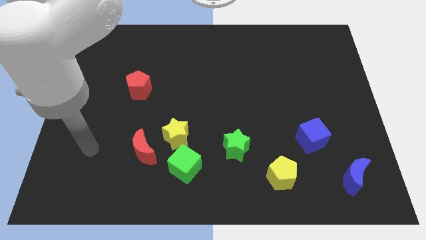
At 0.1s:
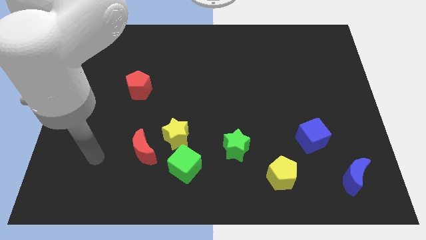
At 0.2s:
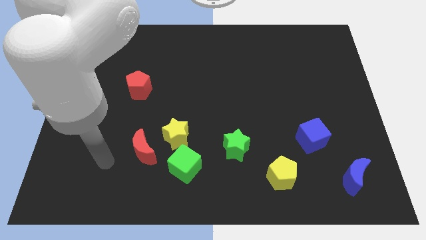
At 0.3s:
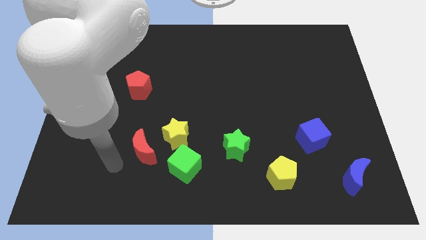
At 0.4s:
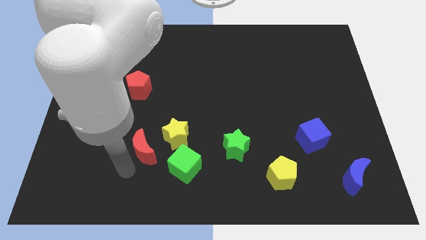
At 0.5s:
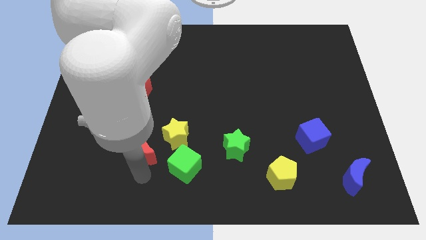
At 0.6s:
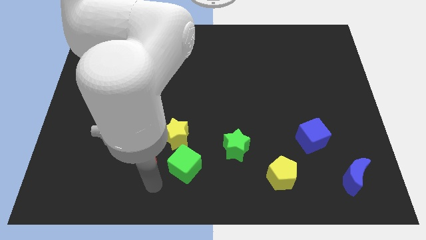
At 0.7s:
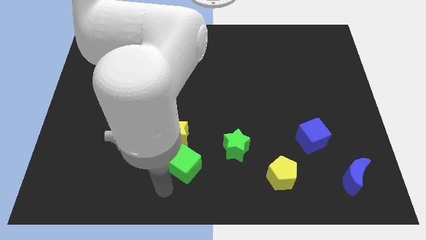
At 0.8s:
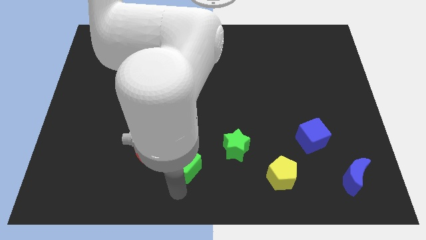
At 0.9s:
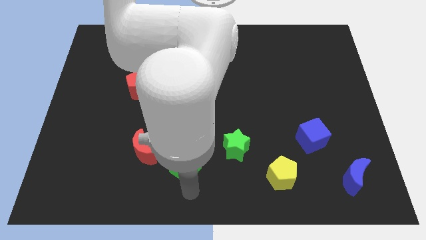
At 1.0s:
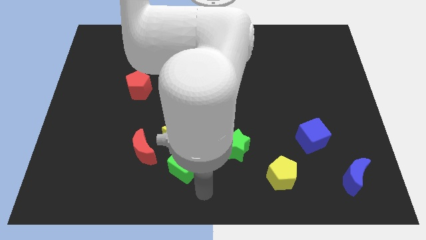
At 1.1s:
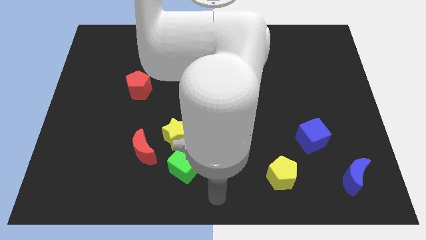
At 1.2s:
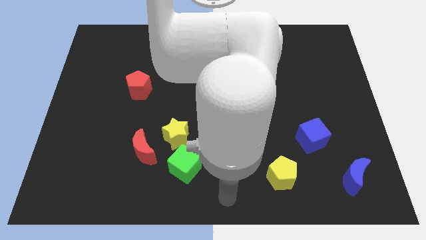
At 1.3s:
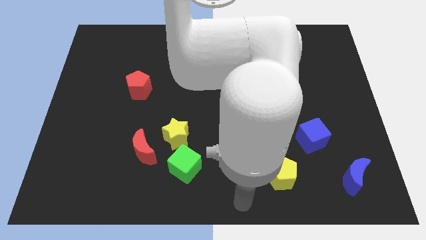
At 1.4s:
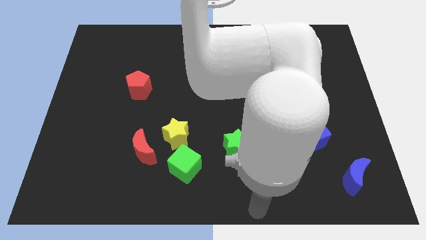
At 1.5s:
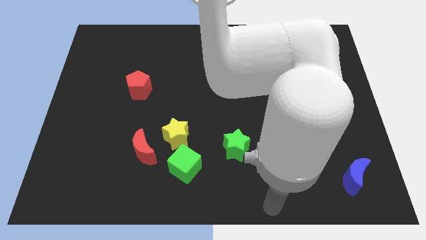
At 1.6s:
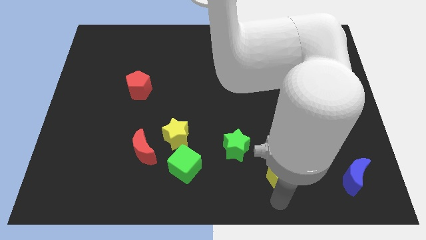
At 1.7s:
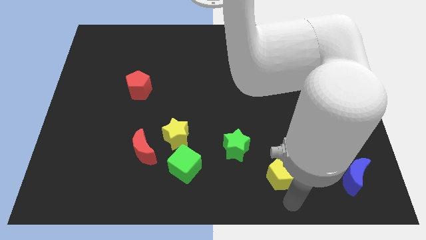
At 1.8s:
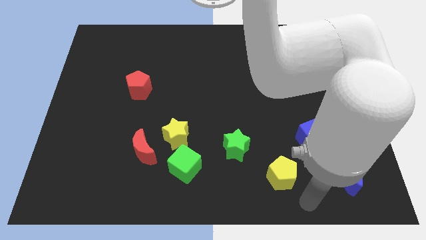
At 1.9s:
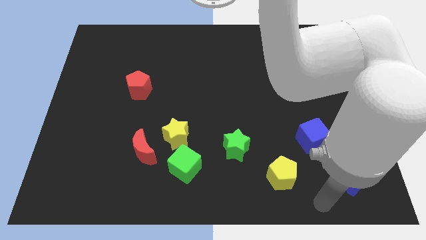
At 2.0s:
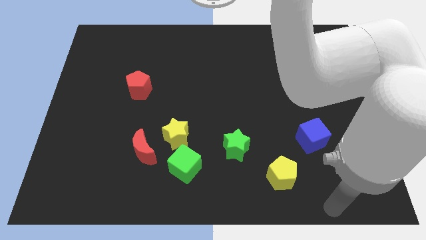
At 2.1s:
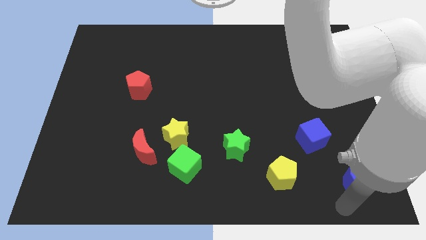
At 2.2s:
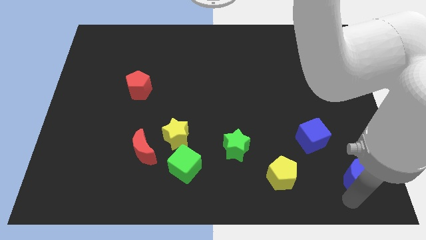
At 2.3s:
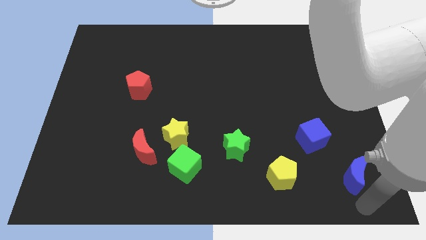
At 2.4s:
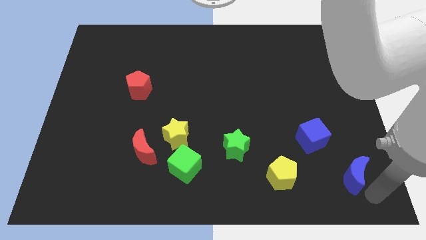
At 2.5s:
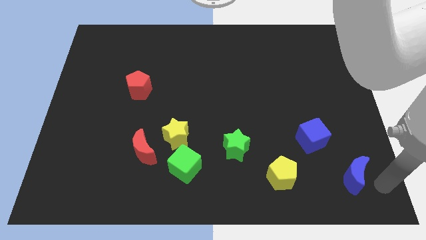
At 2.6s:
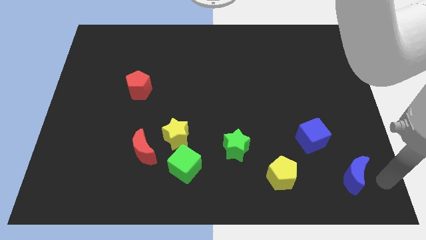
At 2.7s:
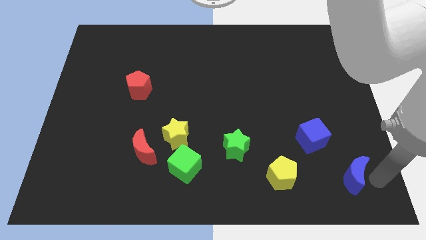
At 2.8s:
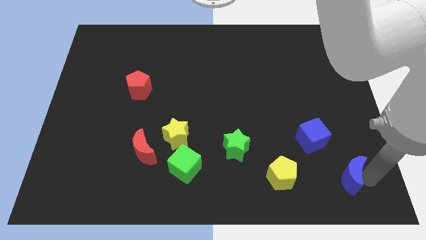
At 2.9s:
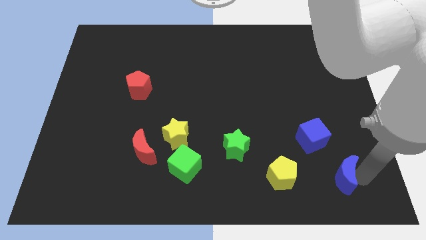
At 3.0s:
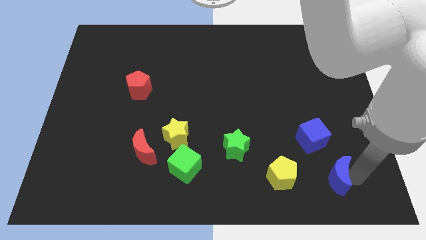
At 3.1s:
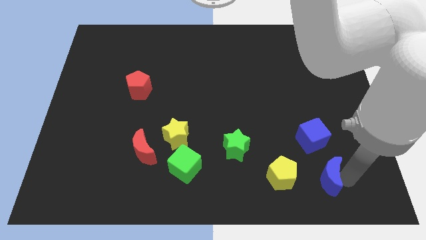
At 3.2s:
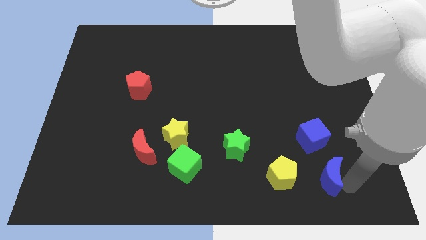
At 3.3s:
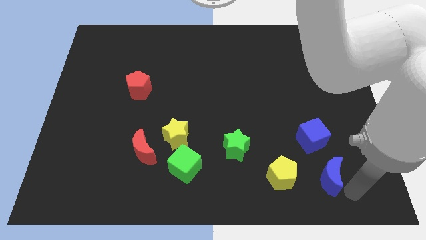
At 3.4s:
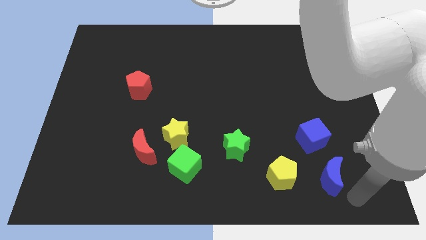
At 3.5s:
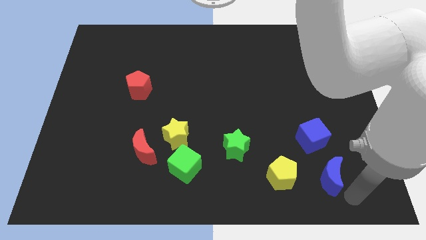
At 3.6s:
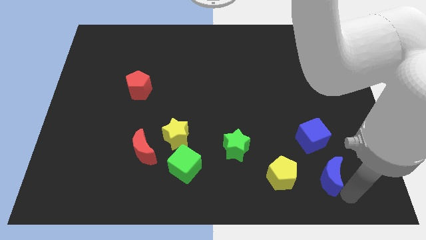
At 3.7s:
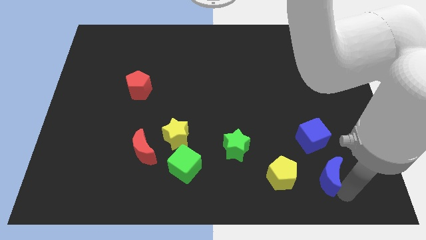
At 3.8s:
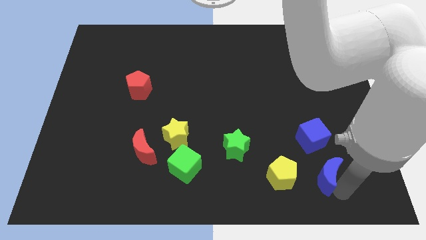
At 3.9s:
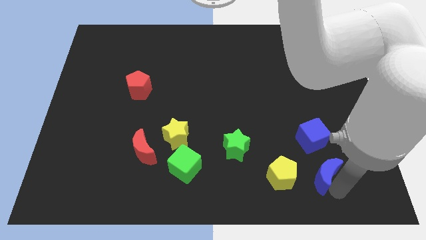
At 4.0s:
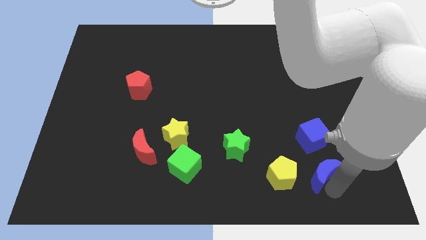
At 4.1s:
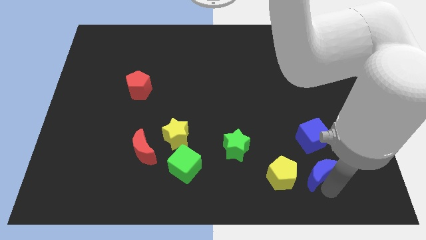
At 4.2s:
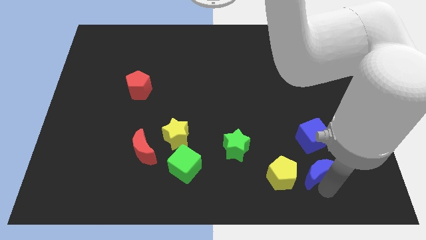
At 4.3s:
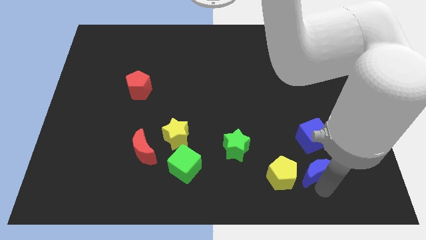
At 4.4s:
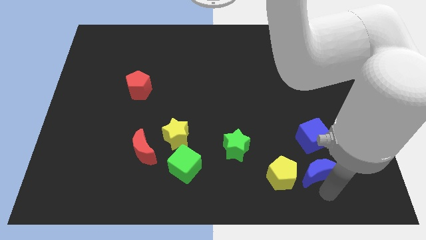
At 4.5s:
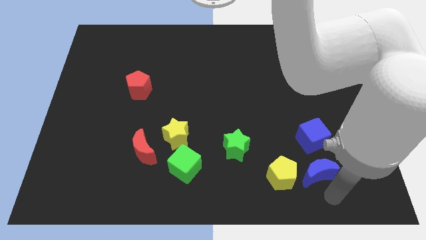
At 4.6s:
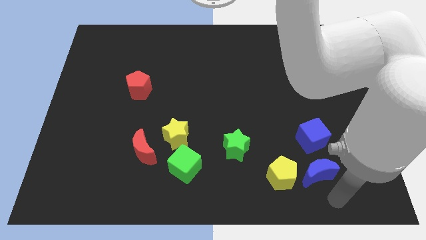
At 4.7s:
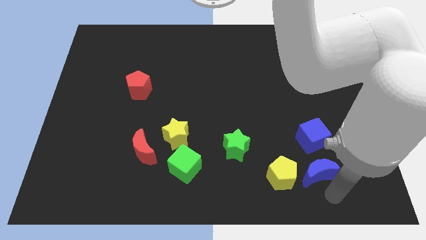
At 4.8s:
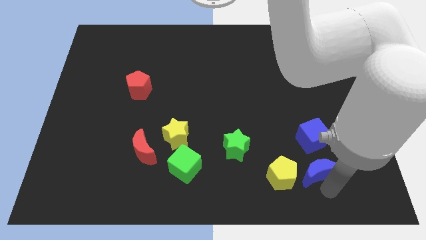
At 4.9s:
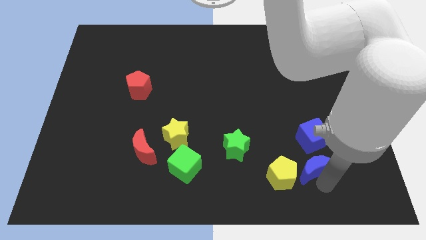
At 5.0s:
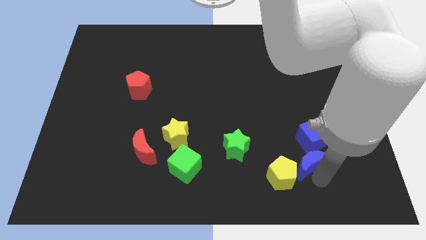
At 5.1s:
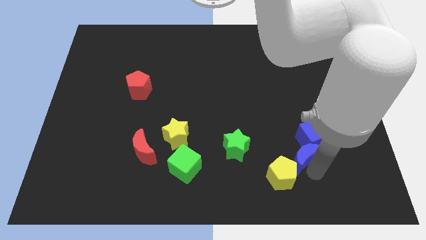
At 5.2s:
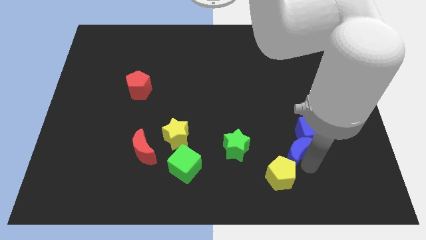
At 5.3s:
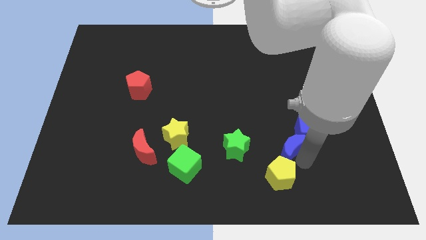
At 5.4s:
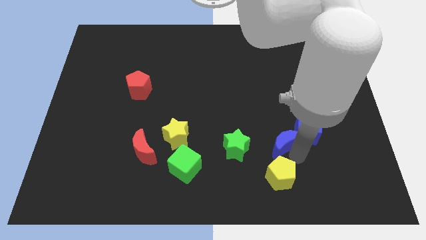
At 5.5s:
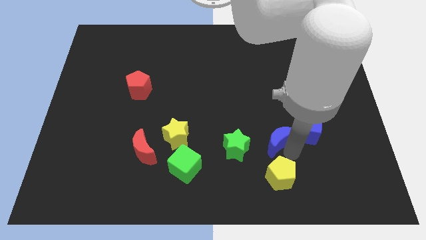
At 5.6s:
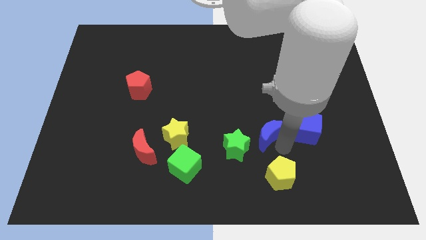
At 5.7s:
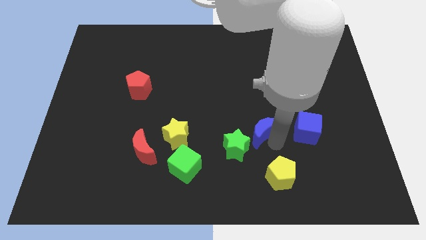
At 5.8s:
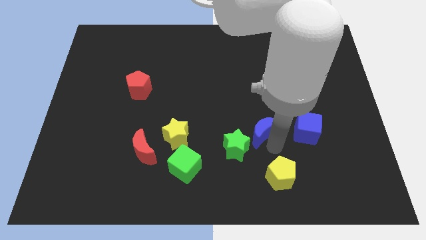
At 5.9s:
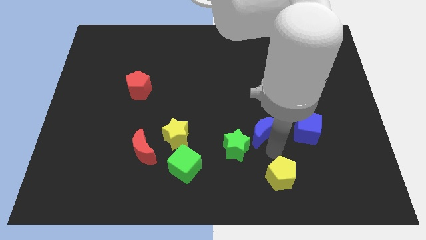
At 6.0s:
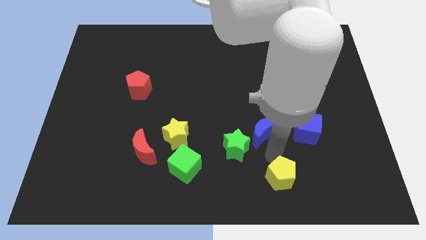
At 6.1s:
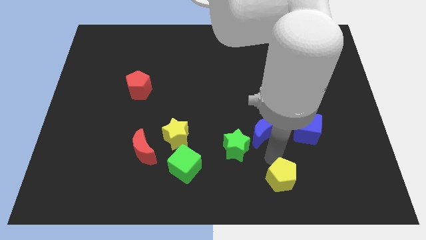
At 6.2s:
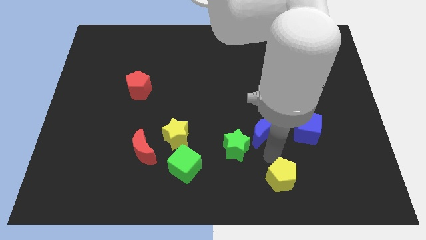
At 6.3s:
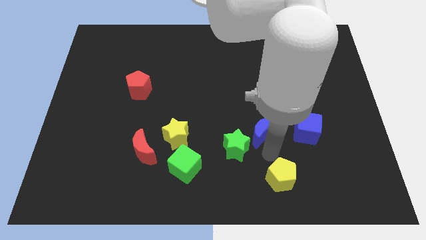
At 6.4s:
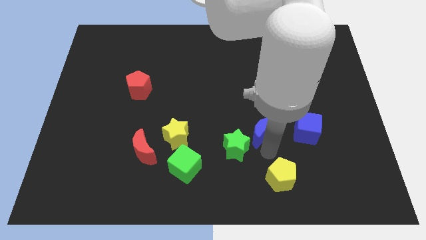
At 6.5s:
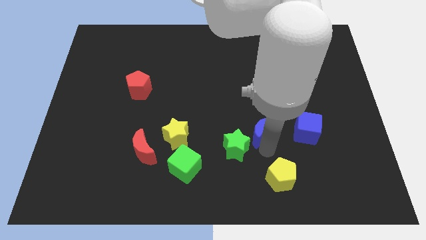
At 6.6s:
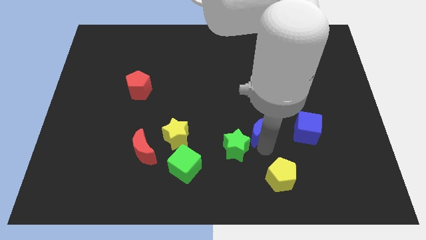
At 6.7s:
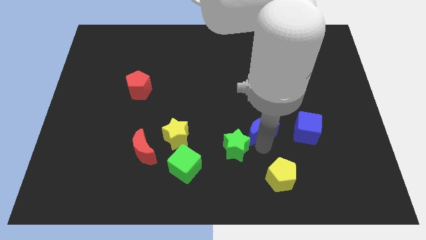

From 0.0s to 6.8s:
slide the blue moon up and to the left diagonally

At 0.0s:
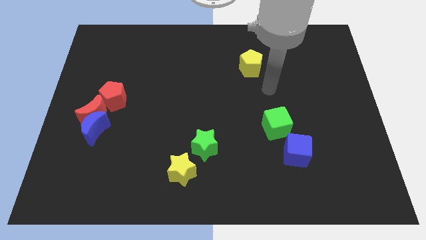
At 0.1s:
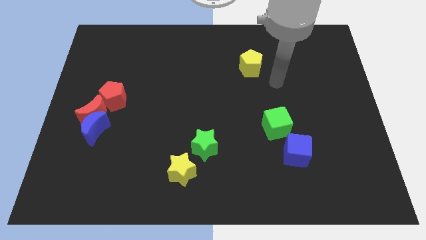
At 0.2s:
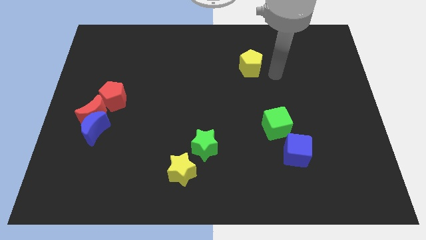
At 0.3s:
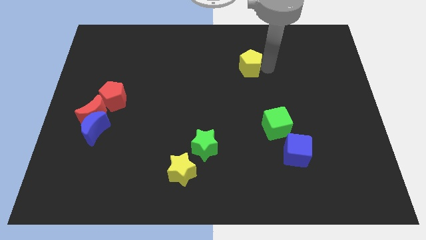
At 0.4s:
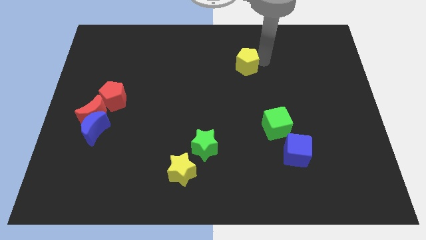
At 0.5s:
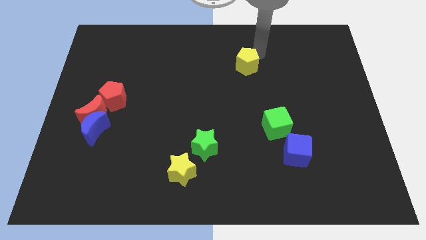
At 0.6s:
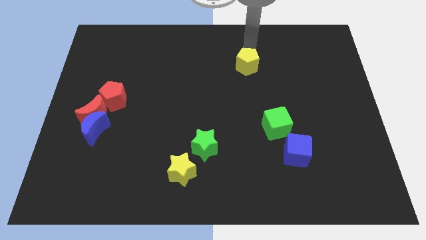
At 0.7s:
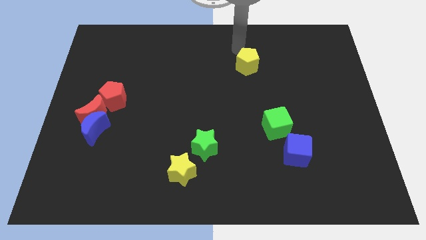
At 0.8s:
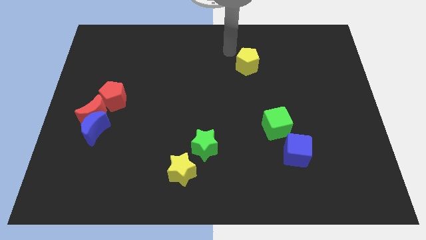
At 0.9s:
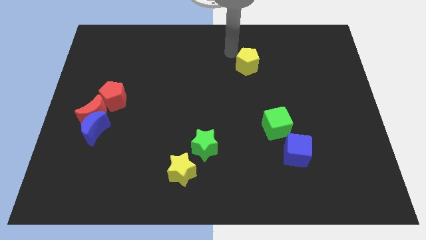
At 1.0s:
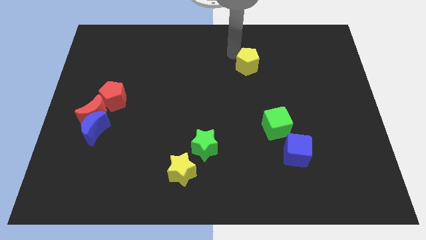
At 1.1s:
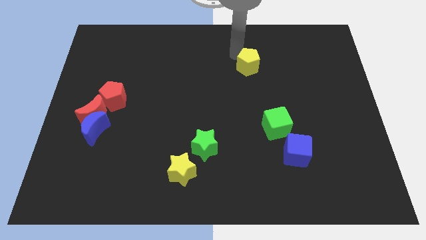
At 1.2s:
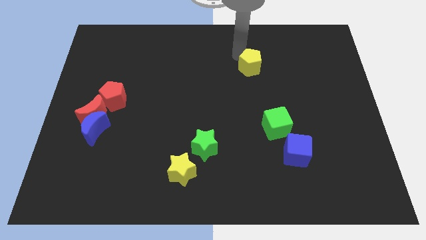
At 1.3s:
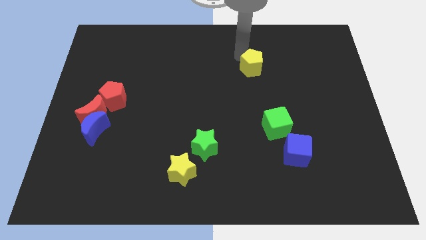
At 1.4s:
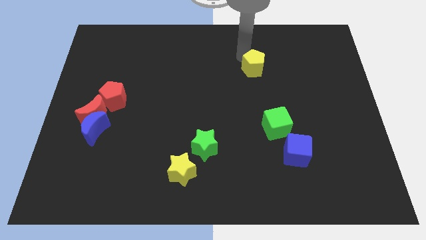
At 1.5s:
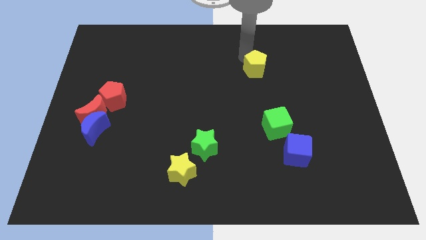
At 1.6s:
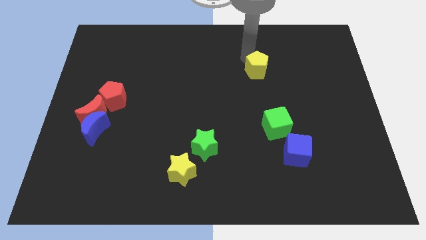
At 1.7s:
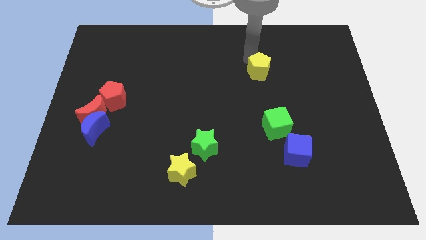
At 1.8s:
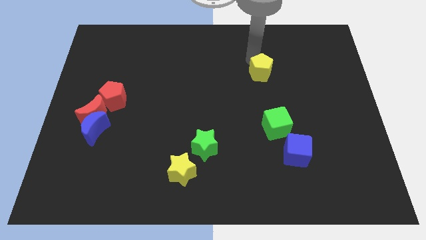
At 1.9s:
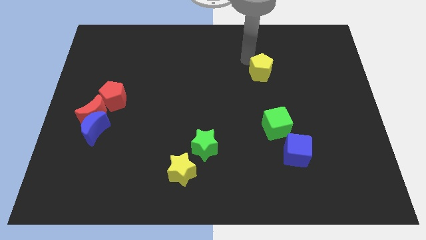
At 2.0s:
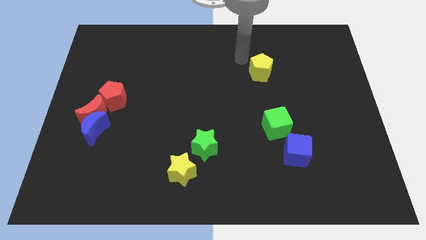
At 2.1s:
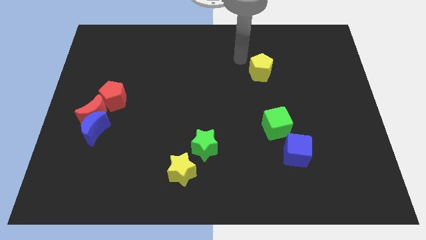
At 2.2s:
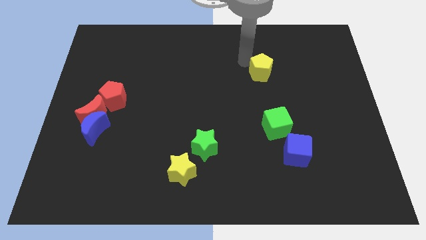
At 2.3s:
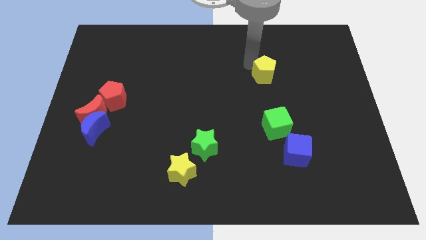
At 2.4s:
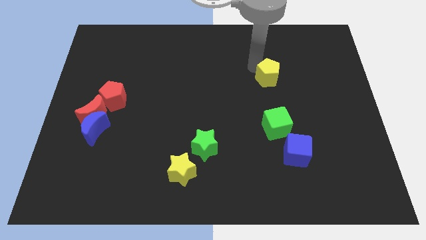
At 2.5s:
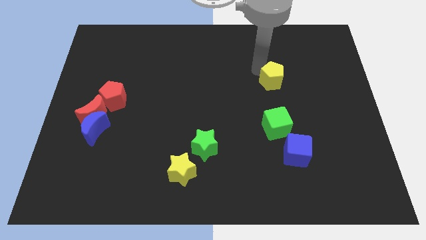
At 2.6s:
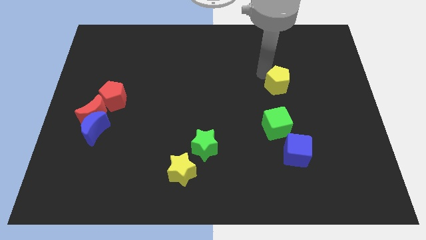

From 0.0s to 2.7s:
slide the yellow pentagon diagonally down and to the right a little
